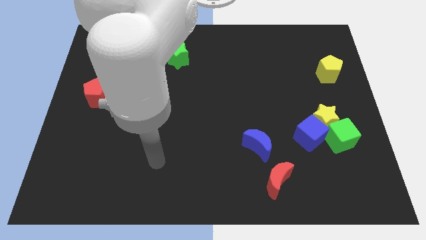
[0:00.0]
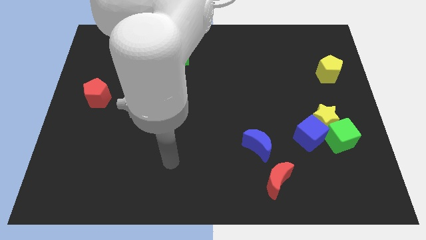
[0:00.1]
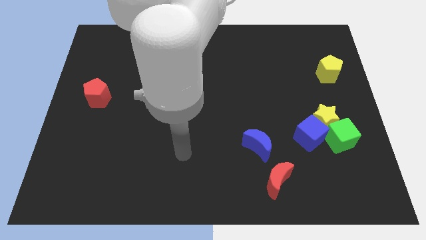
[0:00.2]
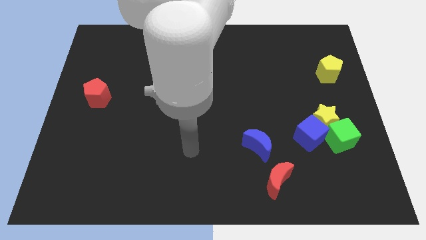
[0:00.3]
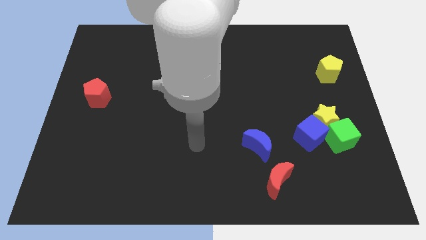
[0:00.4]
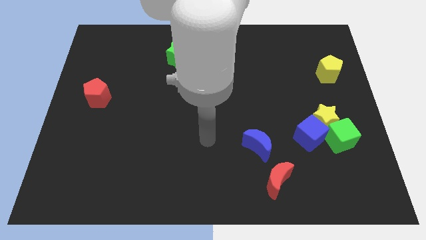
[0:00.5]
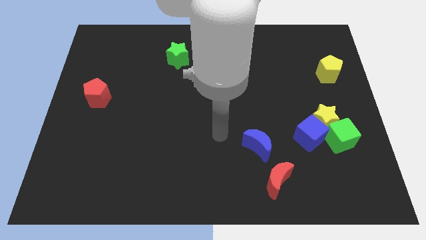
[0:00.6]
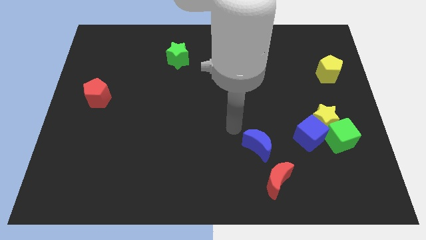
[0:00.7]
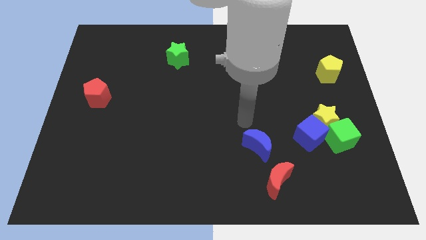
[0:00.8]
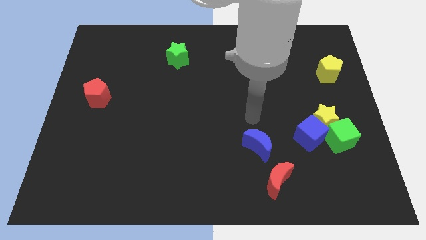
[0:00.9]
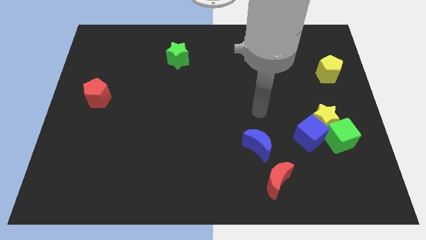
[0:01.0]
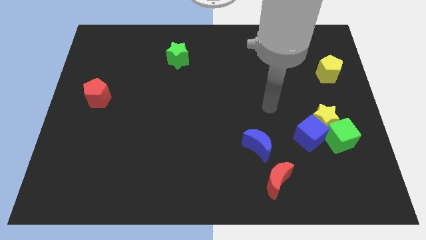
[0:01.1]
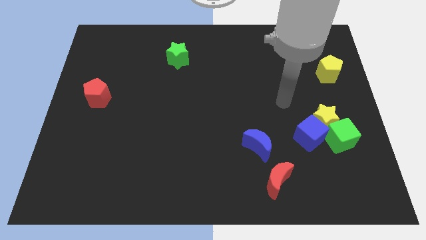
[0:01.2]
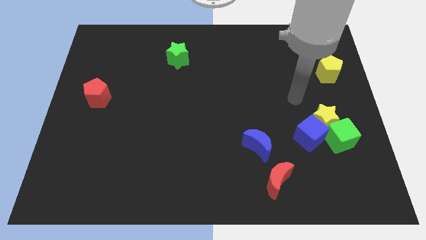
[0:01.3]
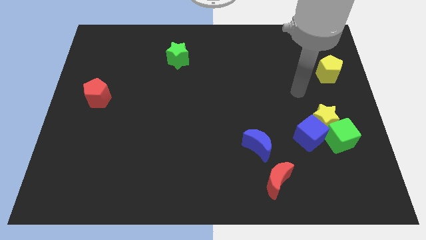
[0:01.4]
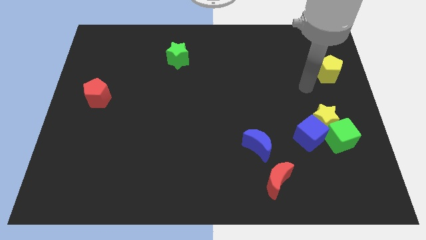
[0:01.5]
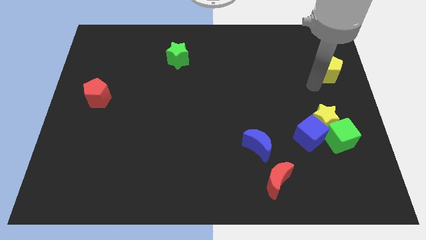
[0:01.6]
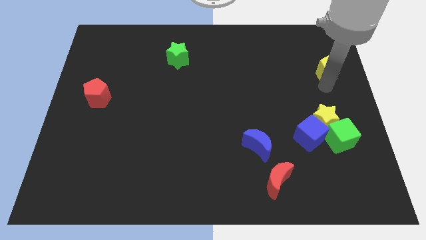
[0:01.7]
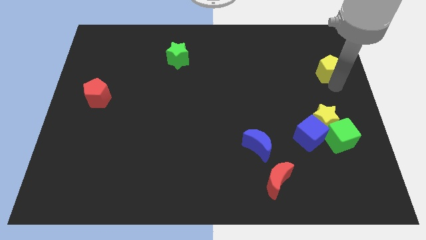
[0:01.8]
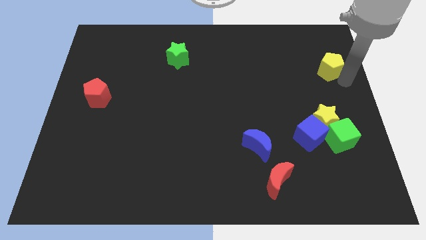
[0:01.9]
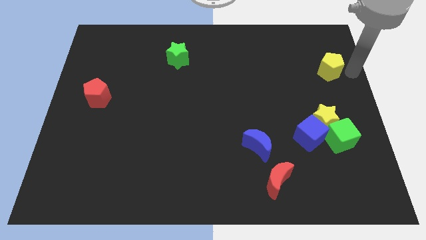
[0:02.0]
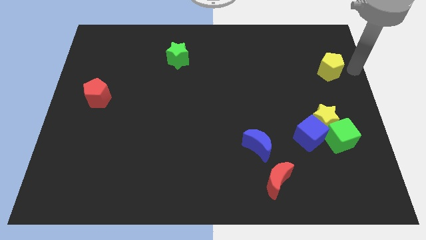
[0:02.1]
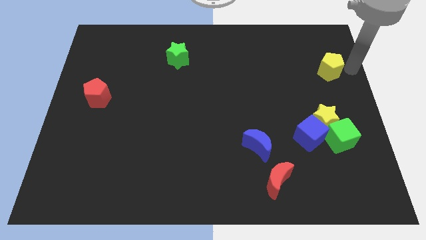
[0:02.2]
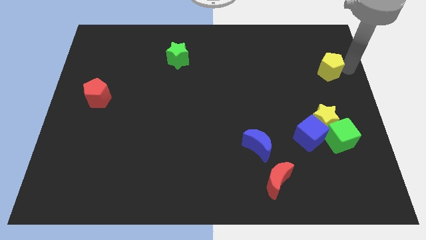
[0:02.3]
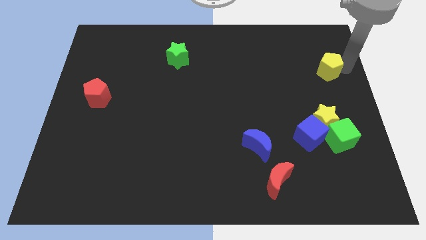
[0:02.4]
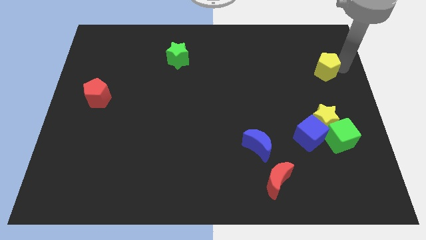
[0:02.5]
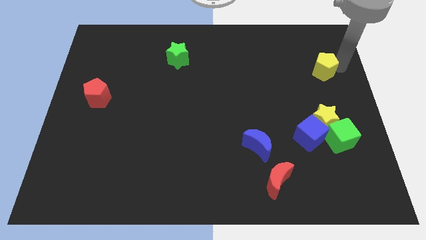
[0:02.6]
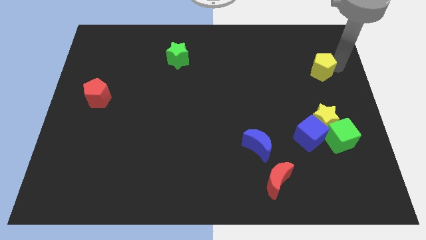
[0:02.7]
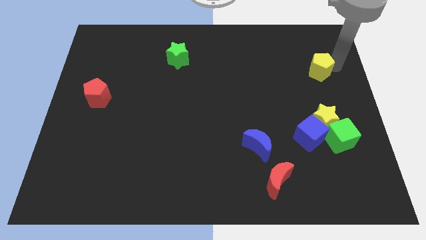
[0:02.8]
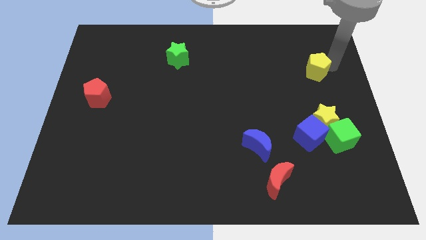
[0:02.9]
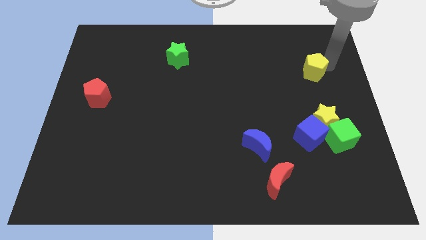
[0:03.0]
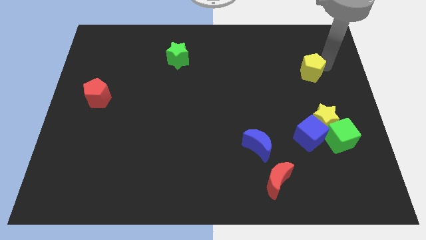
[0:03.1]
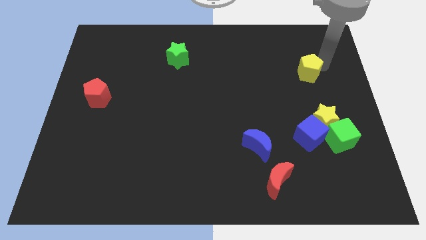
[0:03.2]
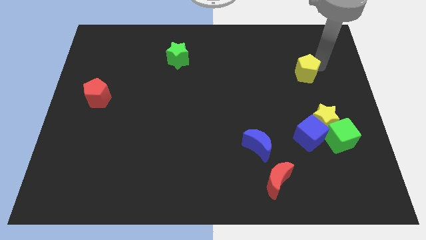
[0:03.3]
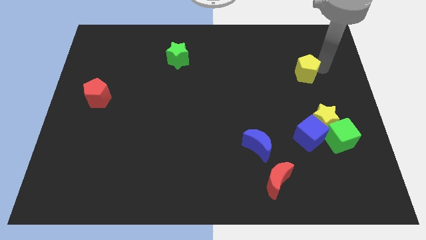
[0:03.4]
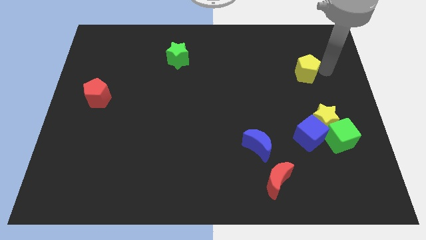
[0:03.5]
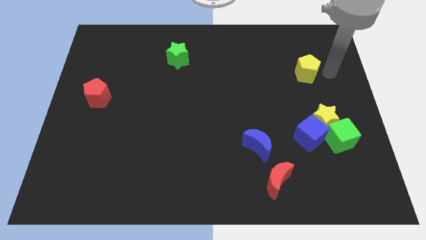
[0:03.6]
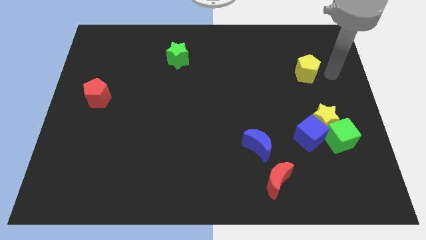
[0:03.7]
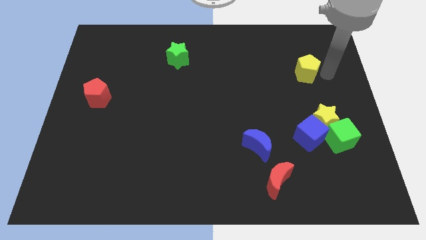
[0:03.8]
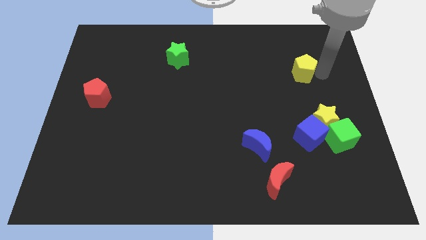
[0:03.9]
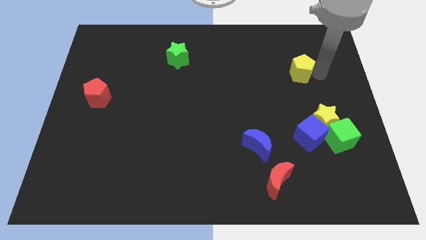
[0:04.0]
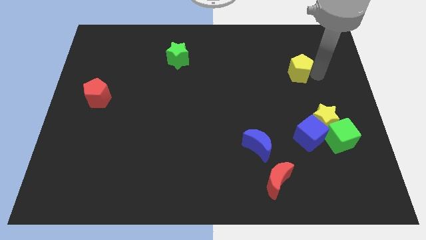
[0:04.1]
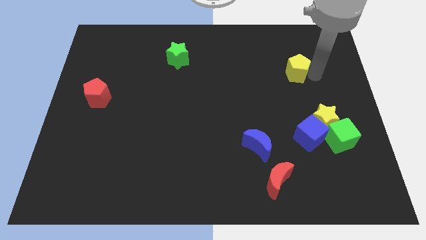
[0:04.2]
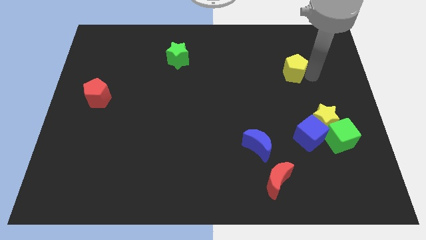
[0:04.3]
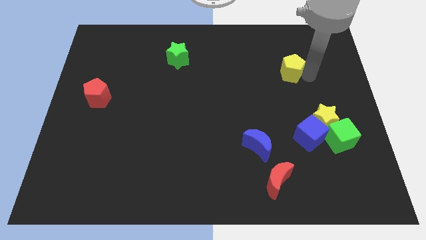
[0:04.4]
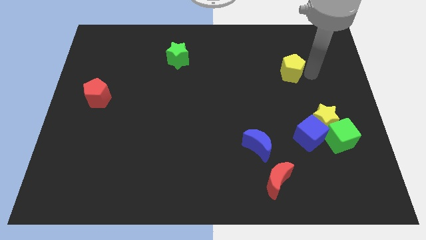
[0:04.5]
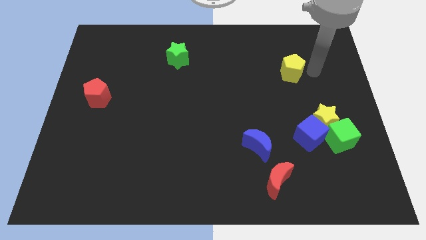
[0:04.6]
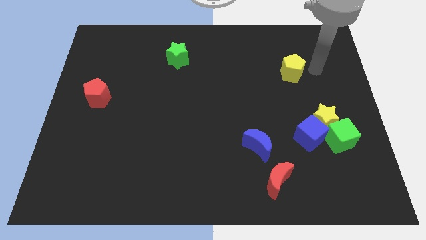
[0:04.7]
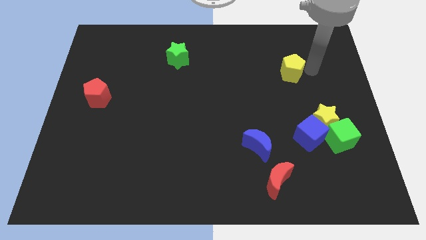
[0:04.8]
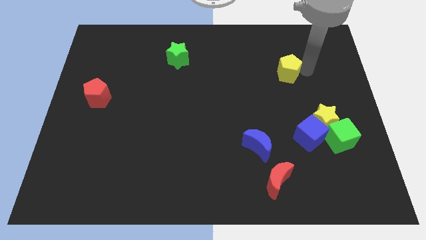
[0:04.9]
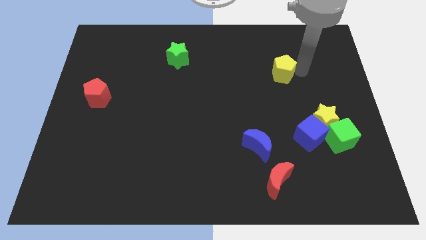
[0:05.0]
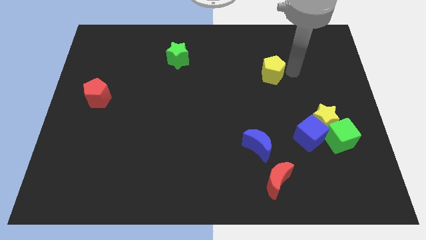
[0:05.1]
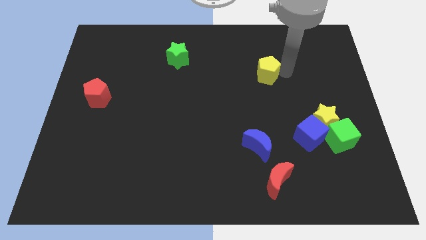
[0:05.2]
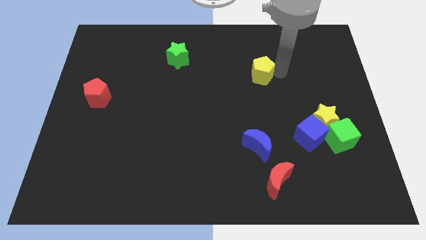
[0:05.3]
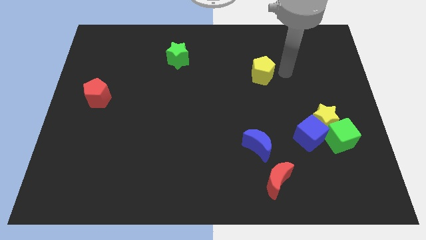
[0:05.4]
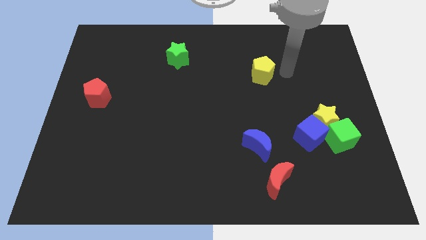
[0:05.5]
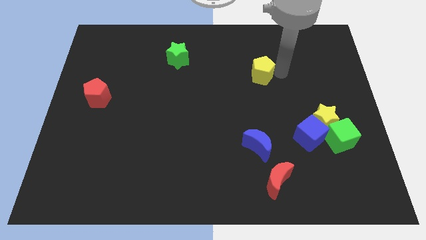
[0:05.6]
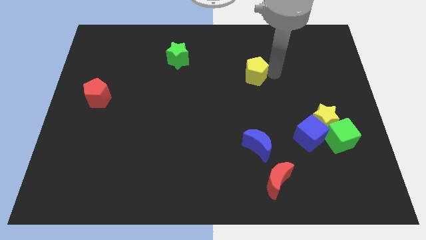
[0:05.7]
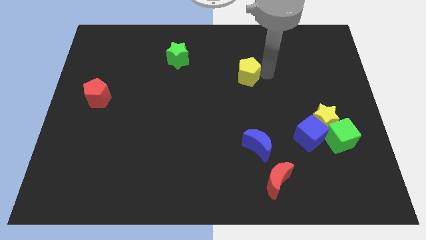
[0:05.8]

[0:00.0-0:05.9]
push the yellow pentagon left

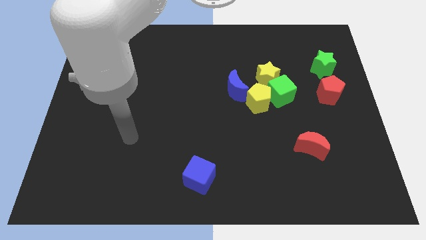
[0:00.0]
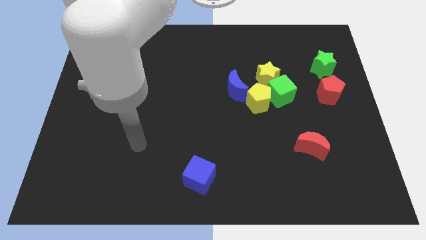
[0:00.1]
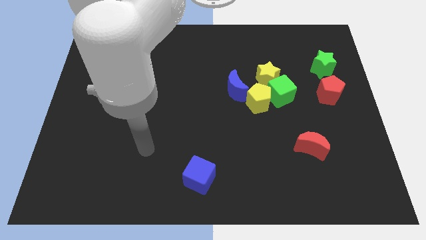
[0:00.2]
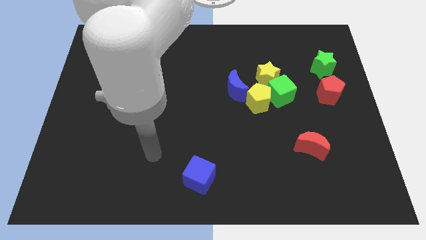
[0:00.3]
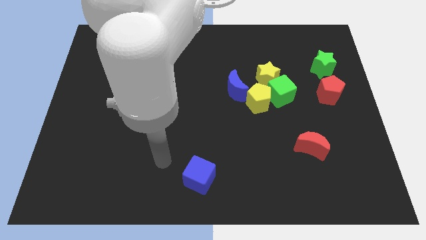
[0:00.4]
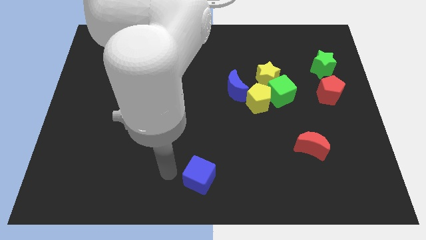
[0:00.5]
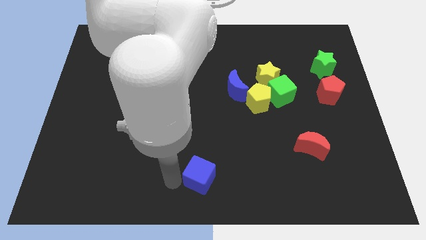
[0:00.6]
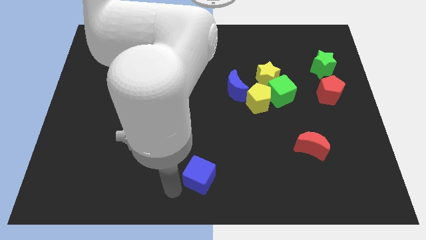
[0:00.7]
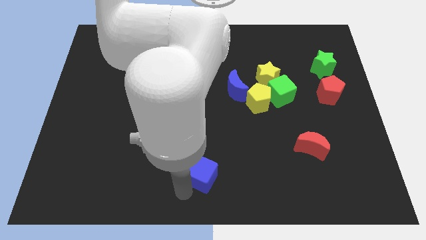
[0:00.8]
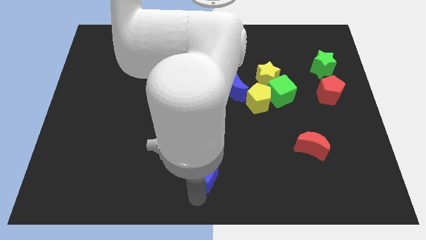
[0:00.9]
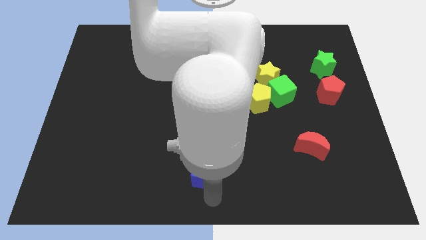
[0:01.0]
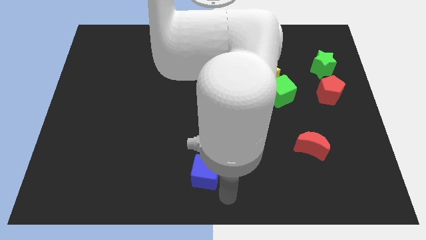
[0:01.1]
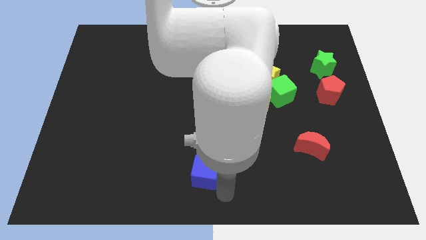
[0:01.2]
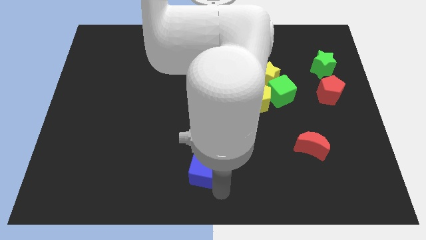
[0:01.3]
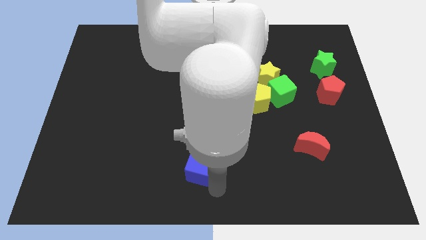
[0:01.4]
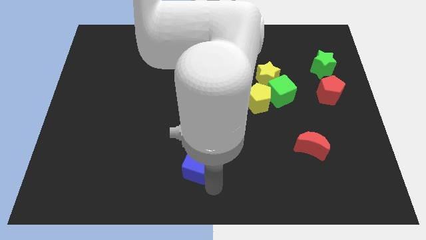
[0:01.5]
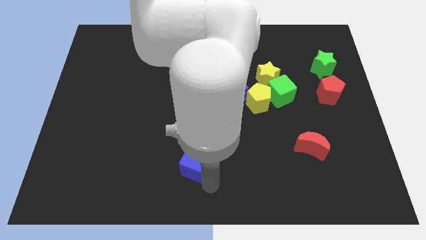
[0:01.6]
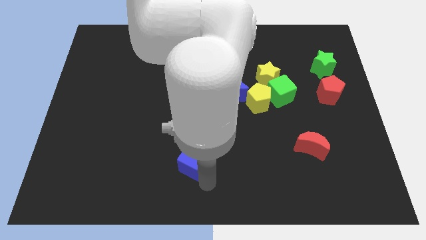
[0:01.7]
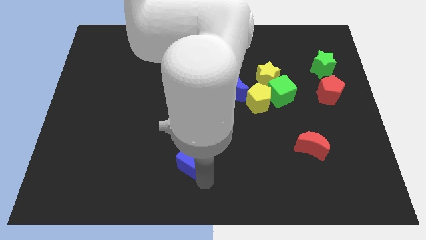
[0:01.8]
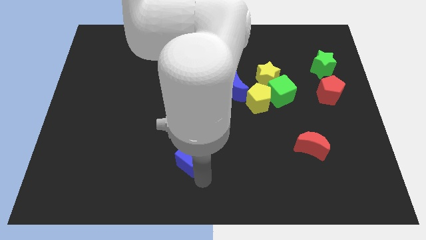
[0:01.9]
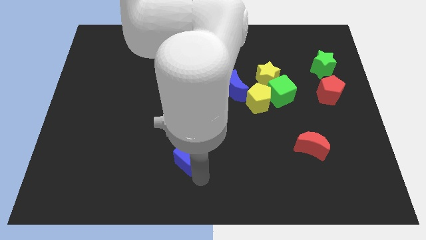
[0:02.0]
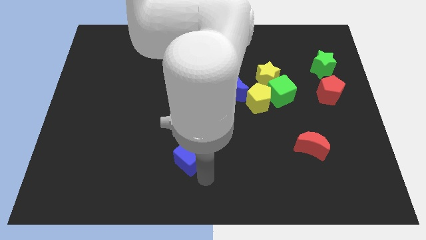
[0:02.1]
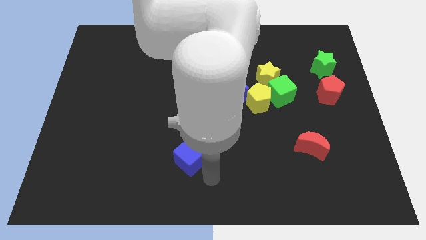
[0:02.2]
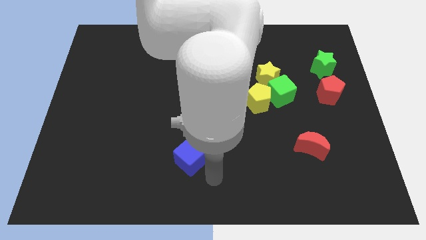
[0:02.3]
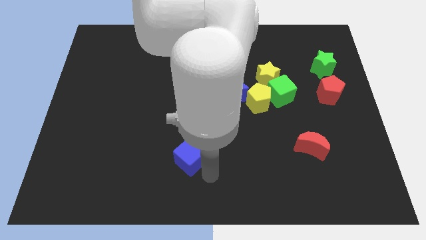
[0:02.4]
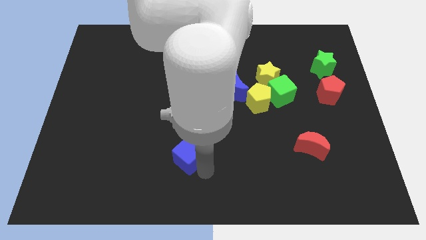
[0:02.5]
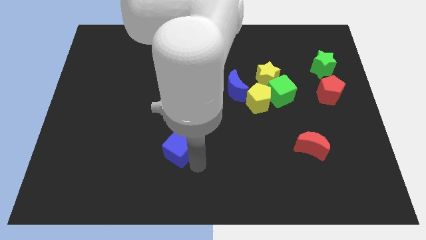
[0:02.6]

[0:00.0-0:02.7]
slightly move the blue cube up and left
